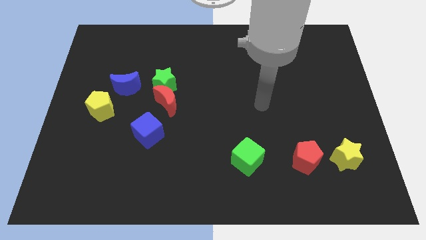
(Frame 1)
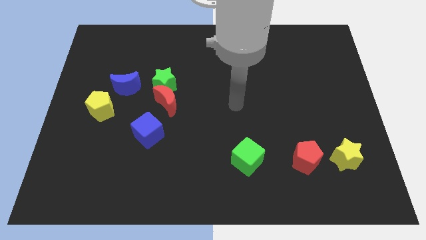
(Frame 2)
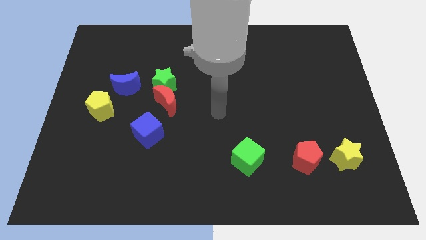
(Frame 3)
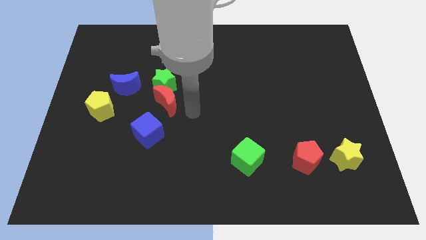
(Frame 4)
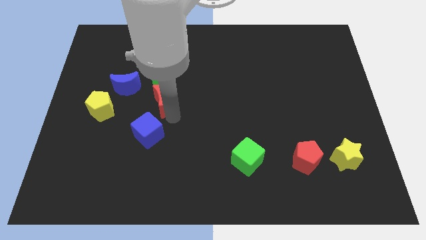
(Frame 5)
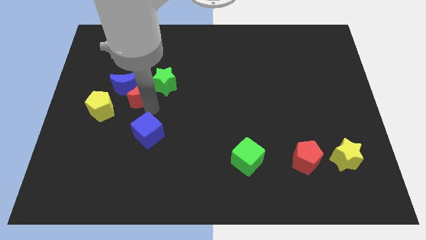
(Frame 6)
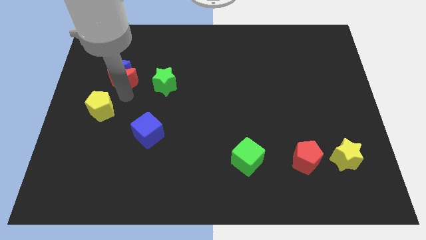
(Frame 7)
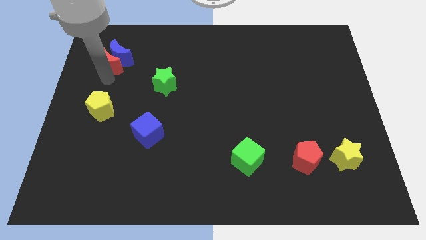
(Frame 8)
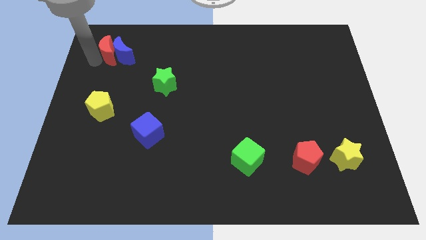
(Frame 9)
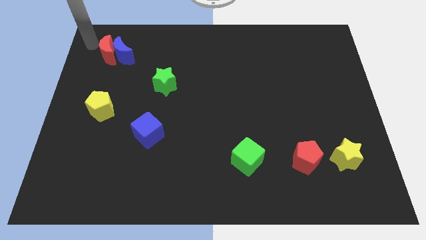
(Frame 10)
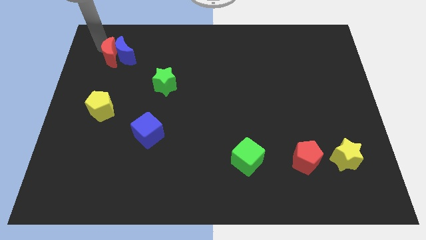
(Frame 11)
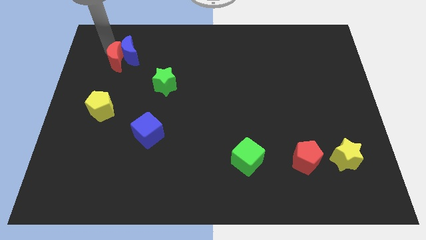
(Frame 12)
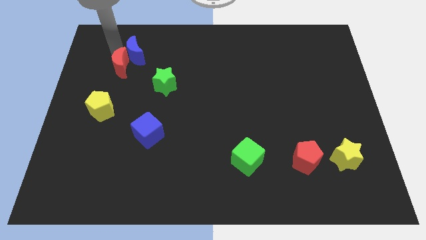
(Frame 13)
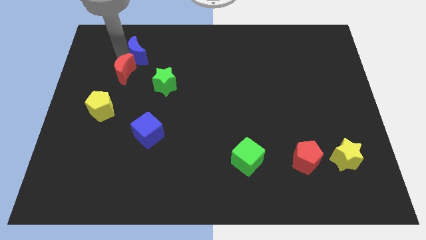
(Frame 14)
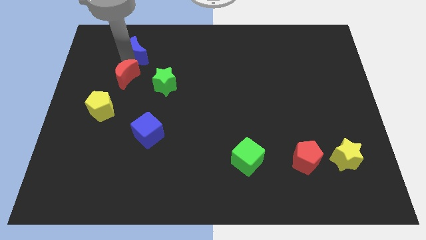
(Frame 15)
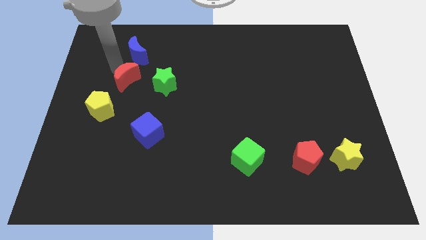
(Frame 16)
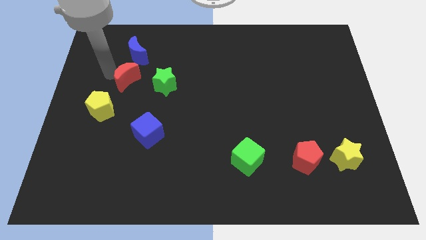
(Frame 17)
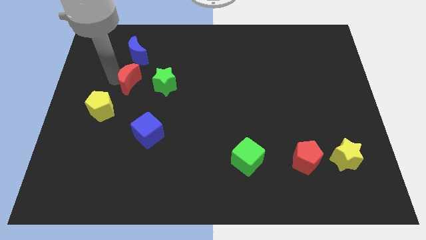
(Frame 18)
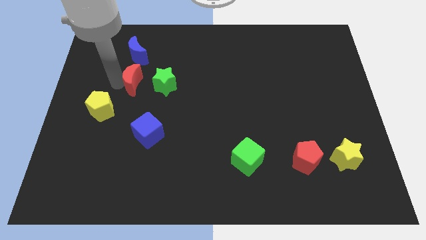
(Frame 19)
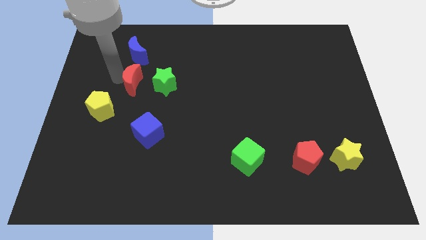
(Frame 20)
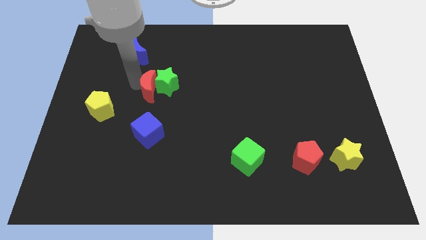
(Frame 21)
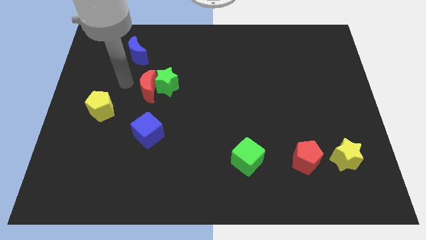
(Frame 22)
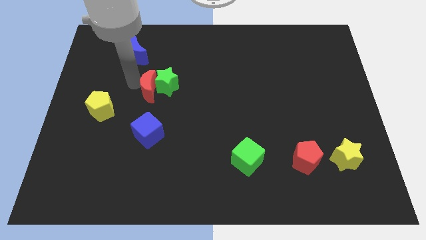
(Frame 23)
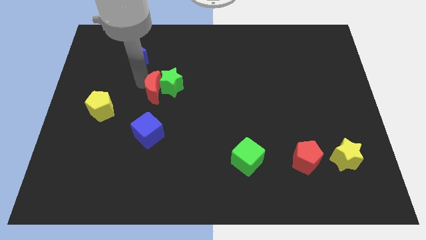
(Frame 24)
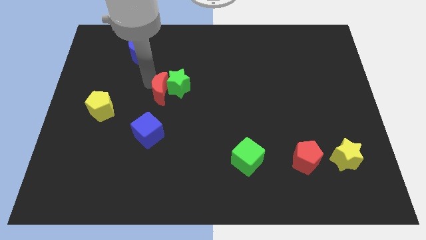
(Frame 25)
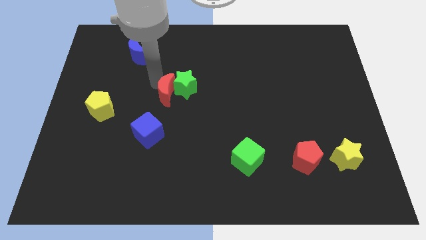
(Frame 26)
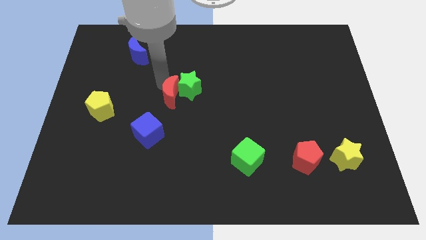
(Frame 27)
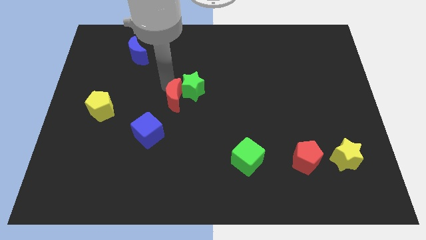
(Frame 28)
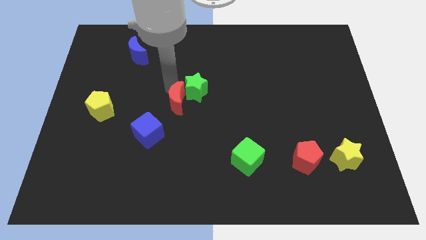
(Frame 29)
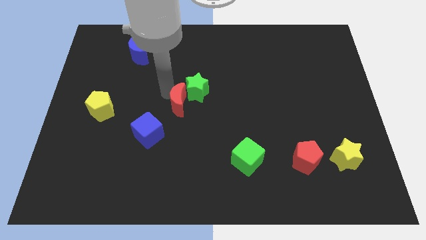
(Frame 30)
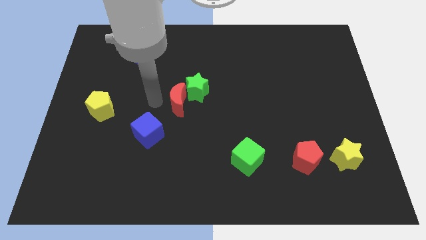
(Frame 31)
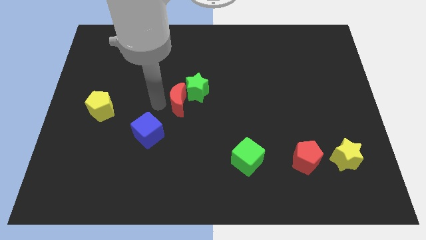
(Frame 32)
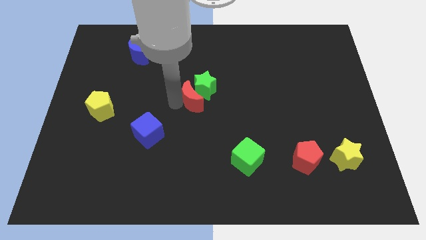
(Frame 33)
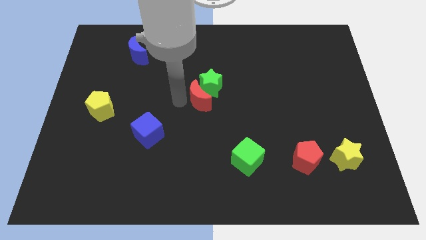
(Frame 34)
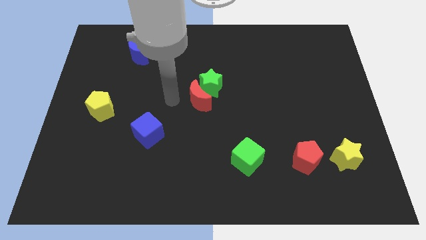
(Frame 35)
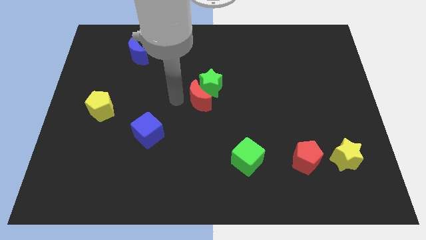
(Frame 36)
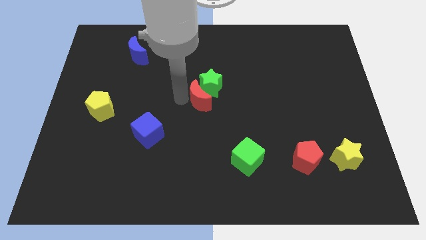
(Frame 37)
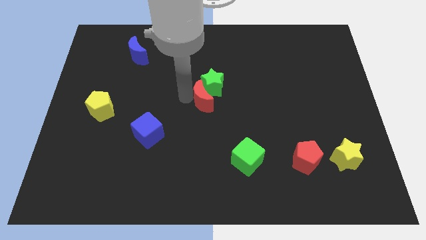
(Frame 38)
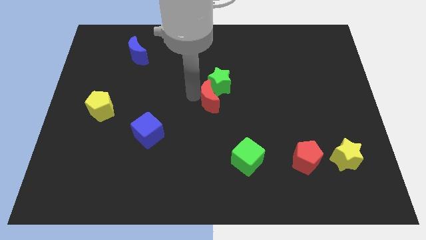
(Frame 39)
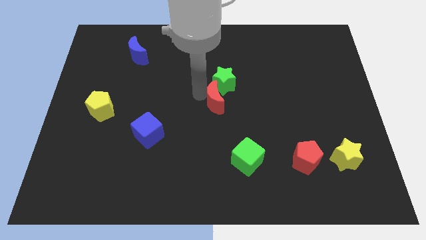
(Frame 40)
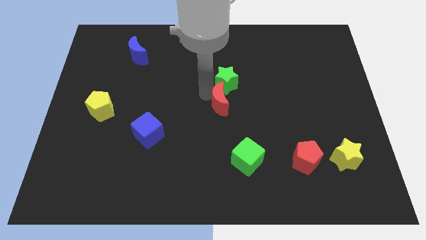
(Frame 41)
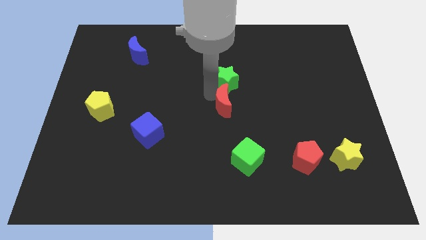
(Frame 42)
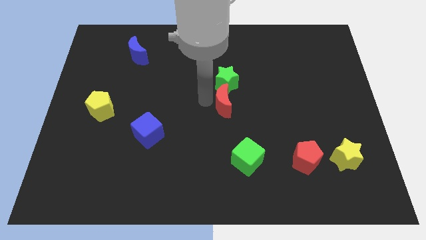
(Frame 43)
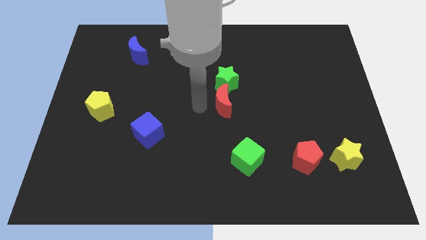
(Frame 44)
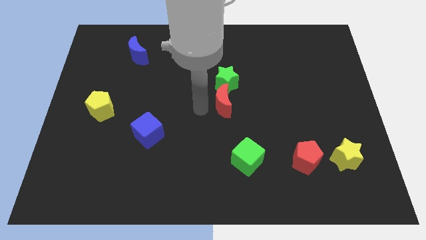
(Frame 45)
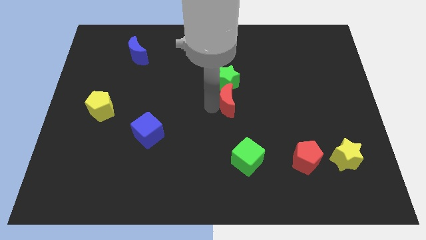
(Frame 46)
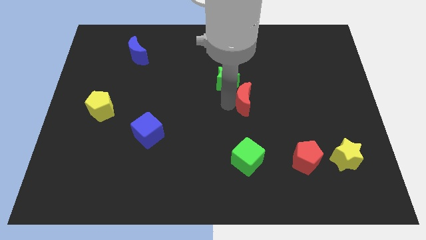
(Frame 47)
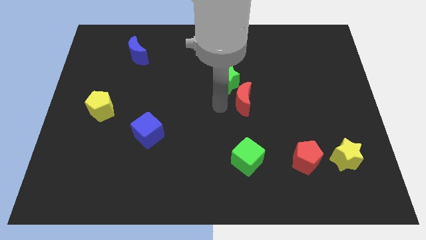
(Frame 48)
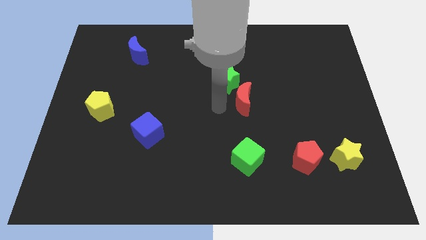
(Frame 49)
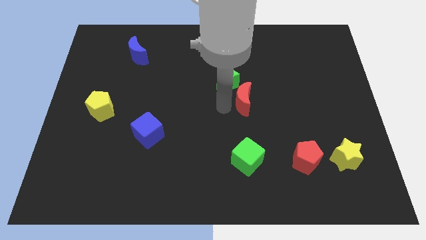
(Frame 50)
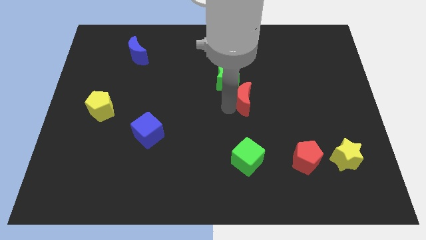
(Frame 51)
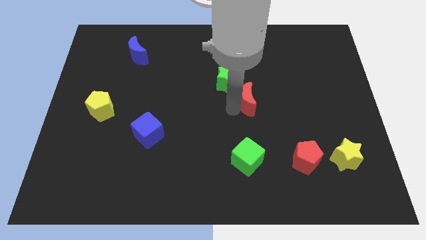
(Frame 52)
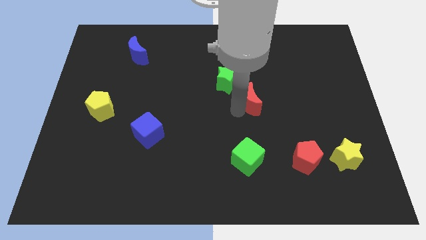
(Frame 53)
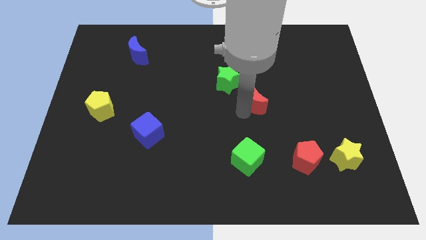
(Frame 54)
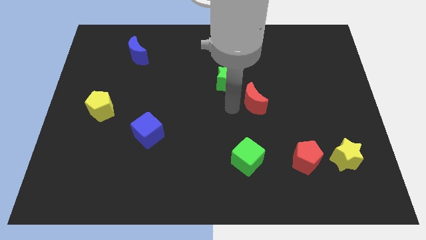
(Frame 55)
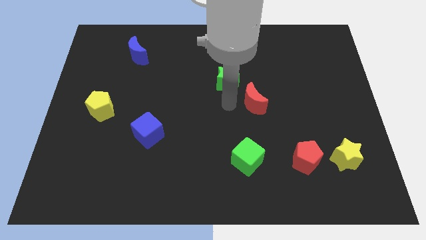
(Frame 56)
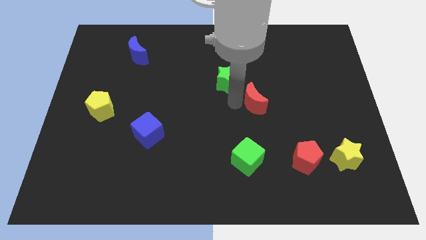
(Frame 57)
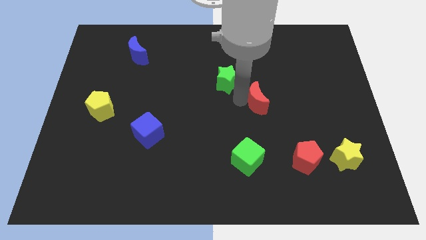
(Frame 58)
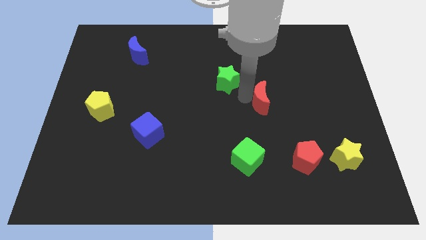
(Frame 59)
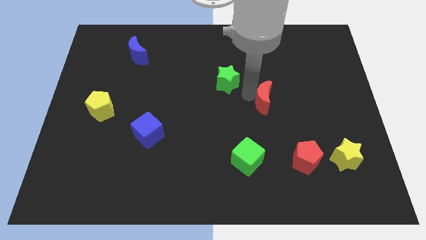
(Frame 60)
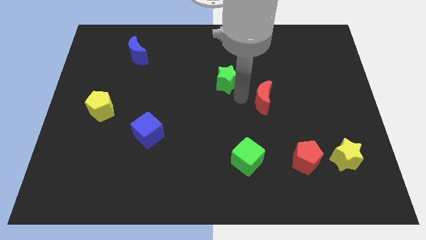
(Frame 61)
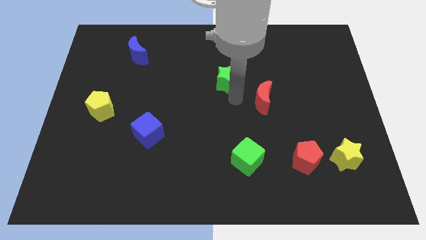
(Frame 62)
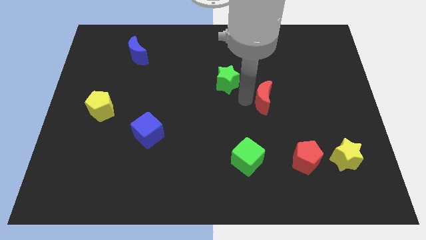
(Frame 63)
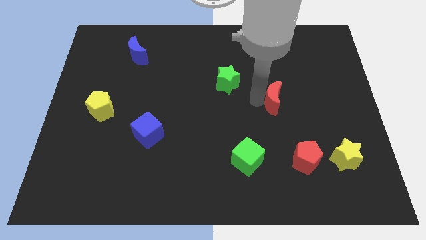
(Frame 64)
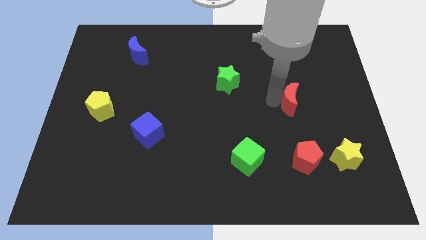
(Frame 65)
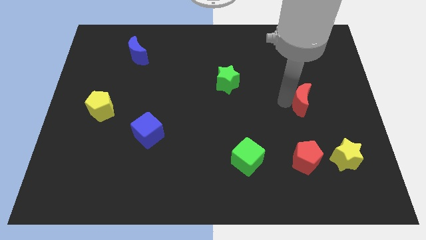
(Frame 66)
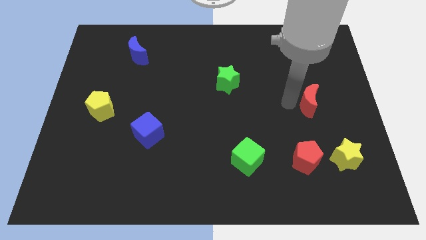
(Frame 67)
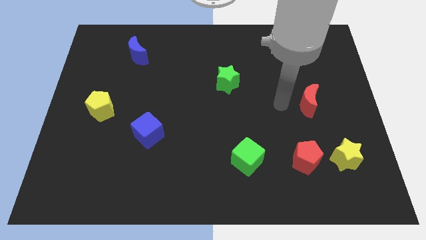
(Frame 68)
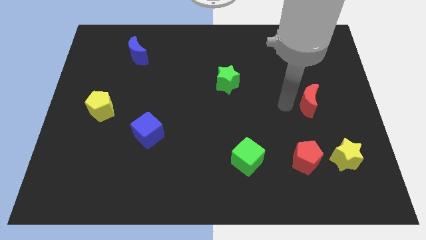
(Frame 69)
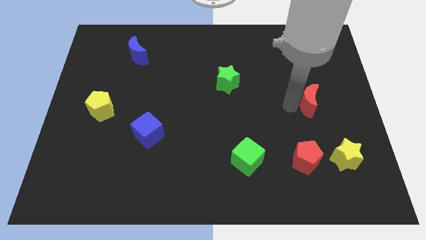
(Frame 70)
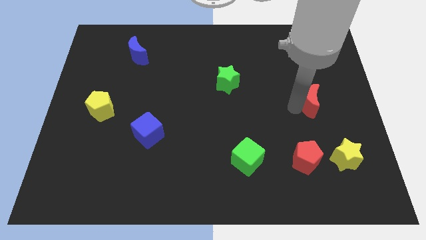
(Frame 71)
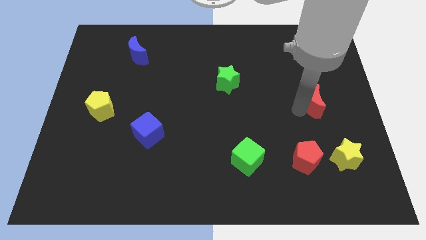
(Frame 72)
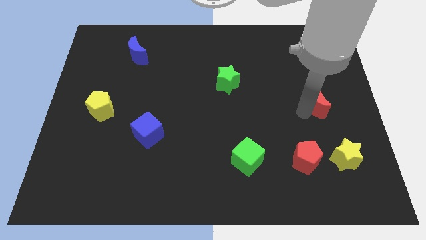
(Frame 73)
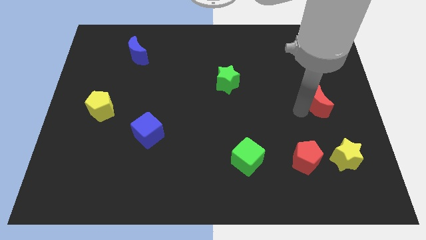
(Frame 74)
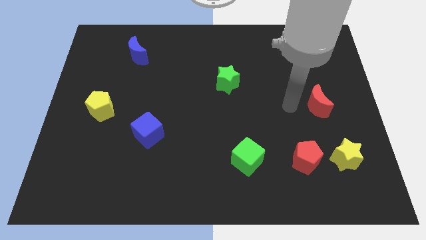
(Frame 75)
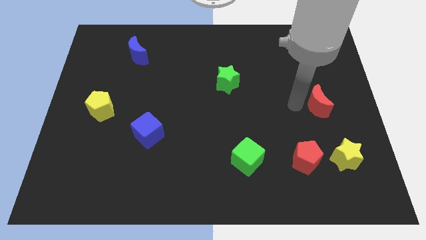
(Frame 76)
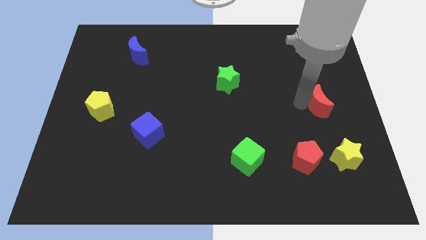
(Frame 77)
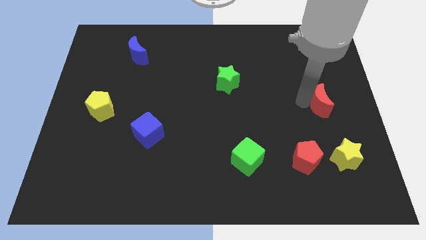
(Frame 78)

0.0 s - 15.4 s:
slide the red moon to the right side of the board
